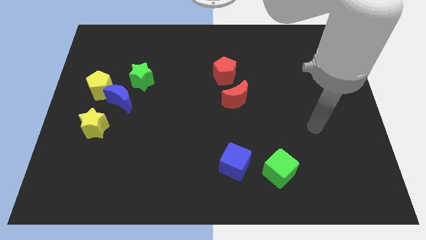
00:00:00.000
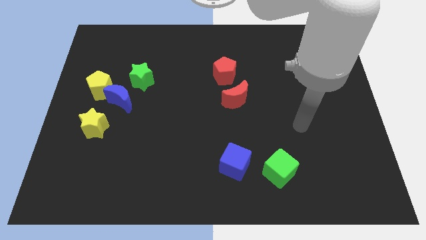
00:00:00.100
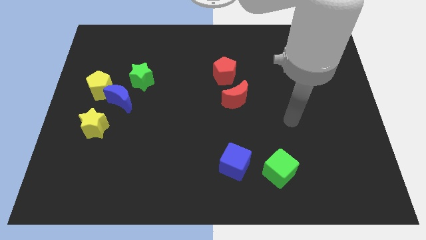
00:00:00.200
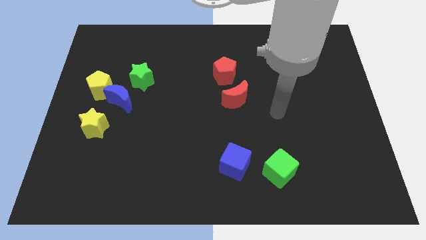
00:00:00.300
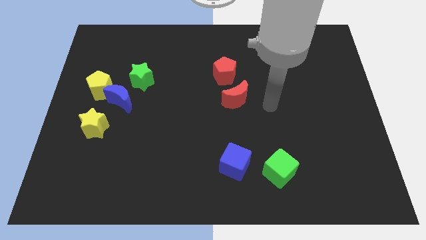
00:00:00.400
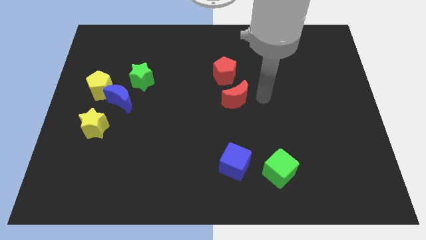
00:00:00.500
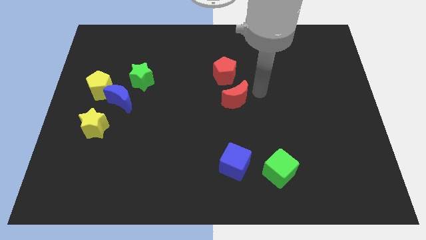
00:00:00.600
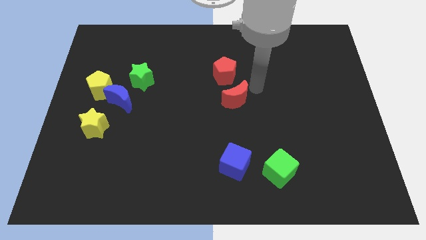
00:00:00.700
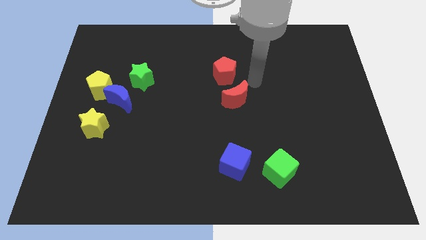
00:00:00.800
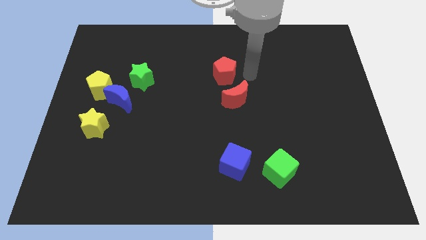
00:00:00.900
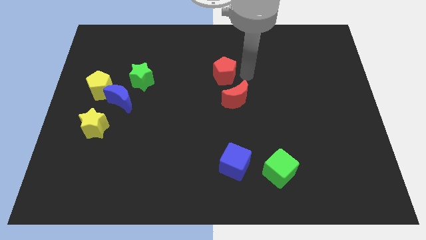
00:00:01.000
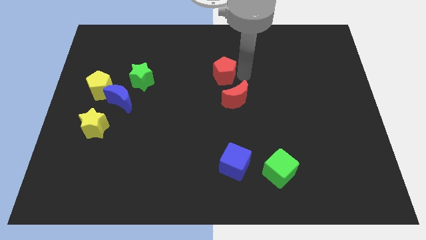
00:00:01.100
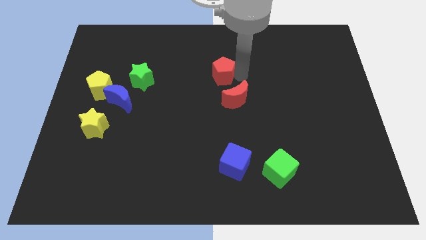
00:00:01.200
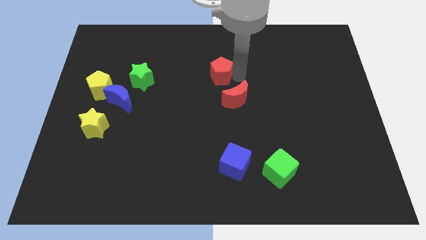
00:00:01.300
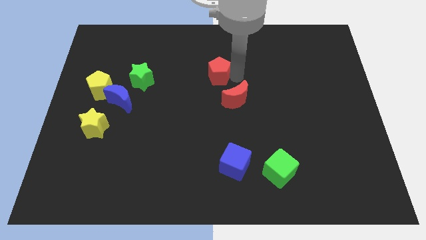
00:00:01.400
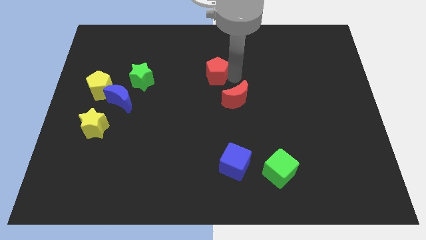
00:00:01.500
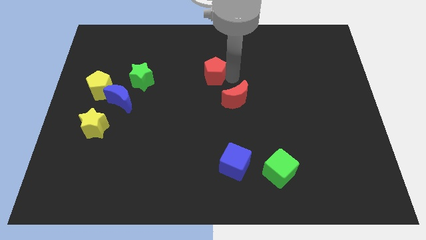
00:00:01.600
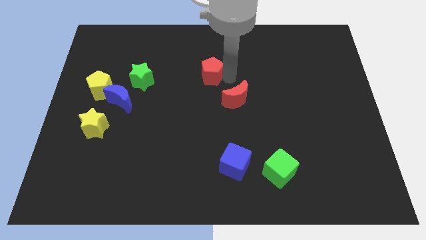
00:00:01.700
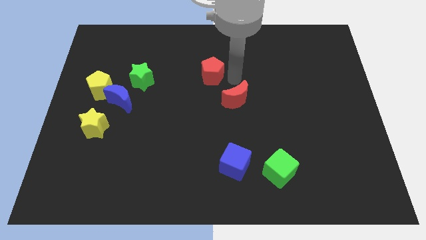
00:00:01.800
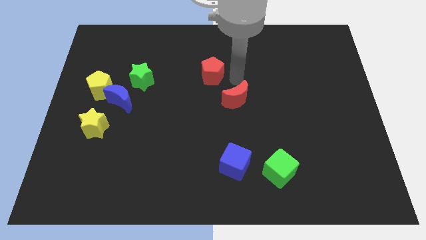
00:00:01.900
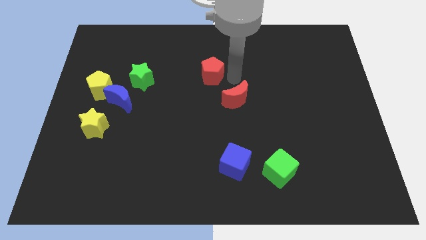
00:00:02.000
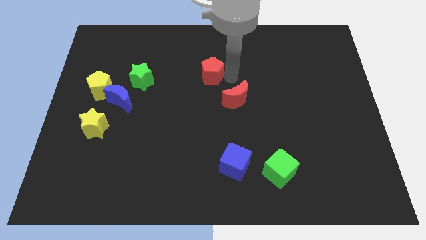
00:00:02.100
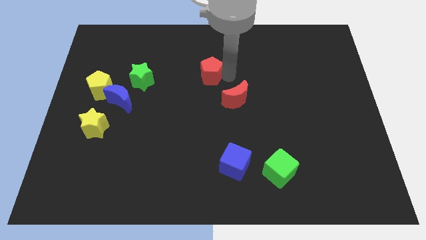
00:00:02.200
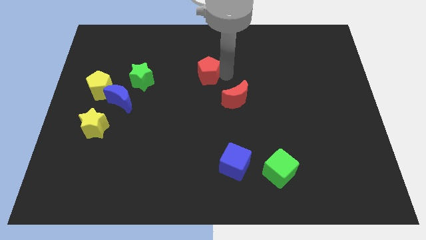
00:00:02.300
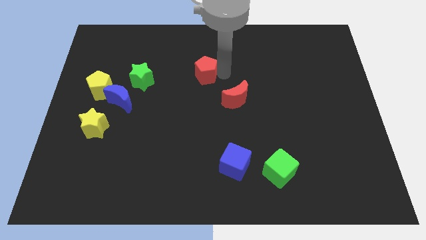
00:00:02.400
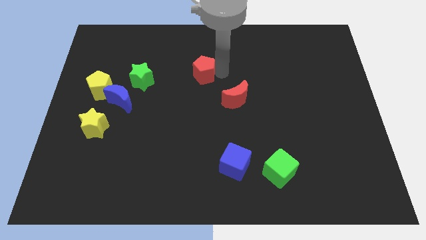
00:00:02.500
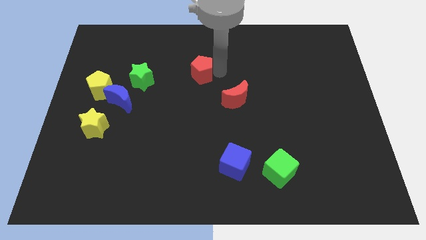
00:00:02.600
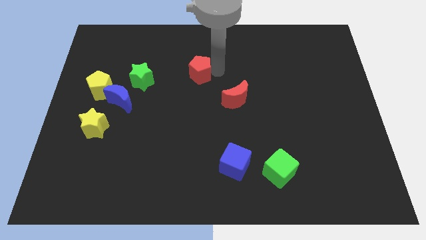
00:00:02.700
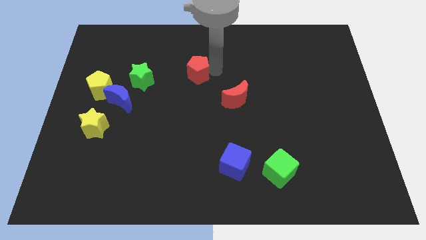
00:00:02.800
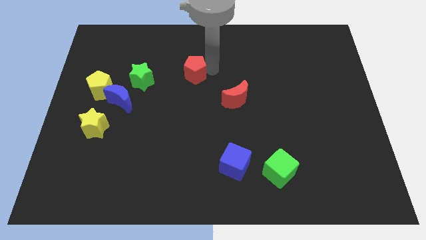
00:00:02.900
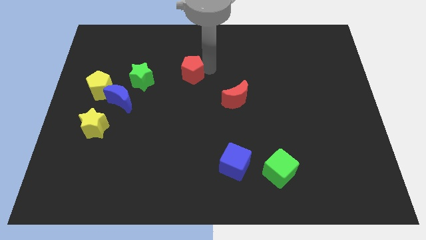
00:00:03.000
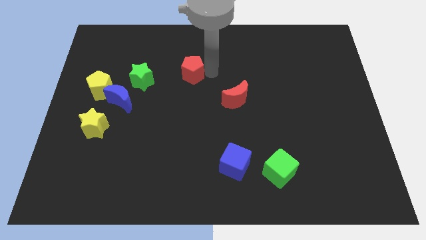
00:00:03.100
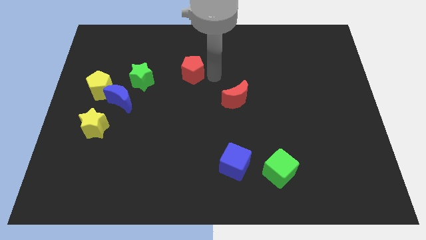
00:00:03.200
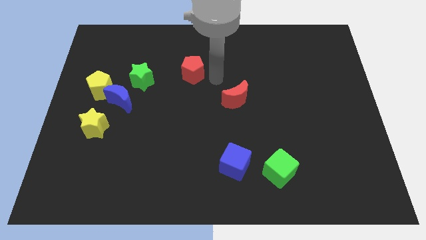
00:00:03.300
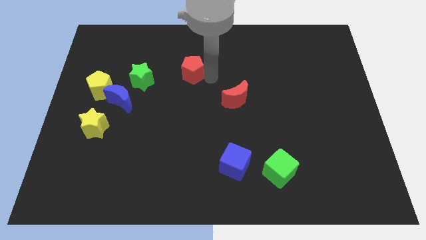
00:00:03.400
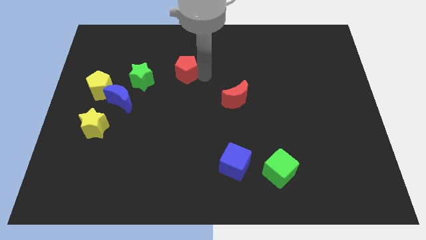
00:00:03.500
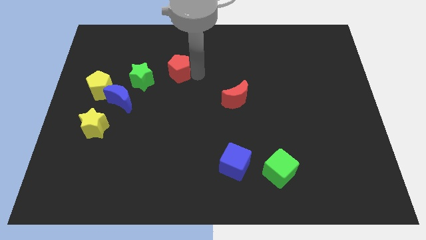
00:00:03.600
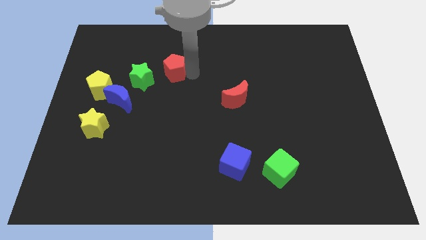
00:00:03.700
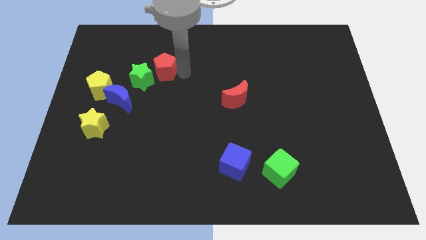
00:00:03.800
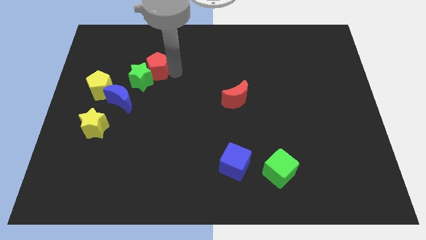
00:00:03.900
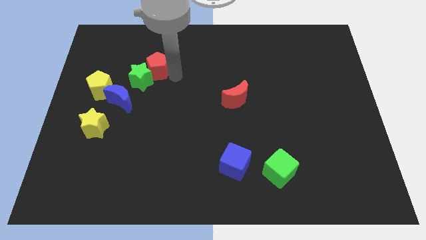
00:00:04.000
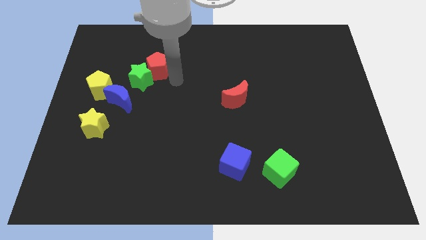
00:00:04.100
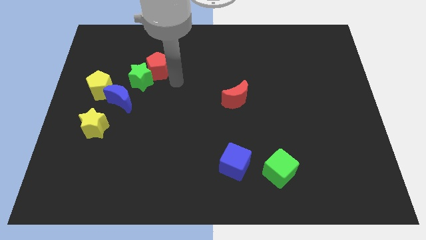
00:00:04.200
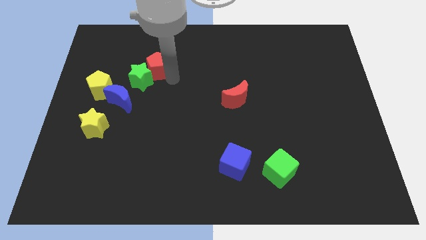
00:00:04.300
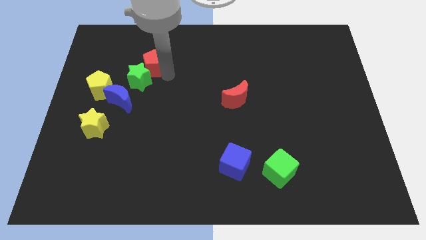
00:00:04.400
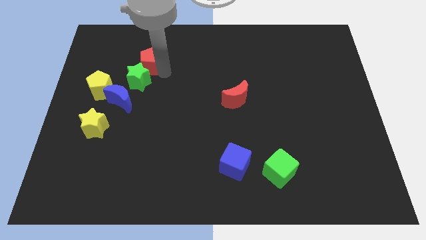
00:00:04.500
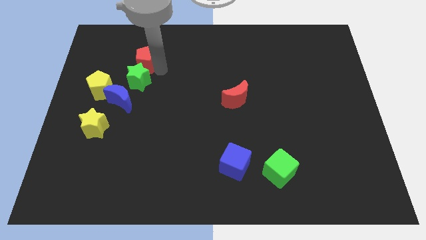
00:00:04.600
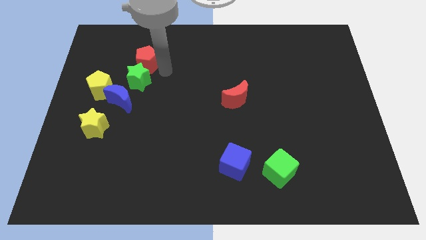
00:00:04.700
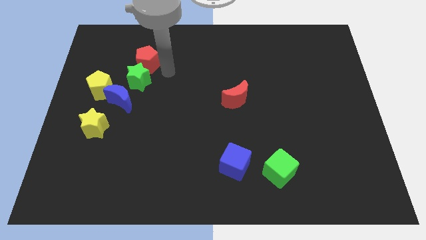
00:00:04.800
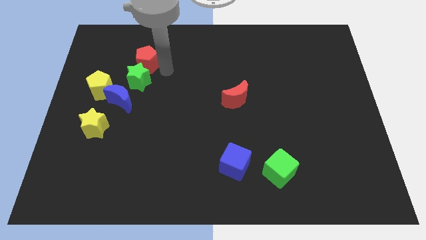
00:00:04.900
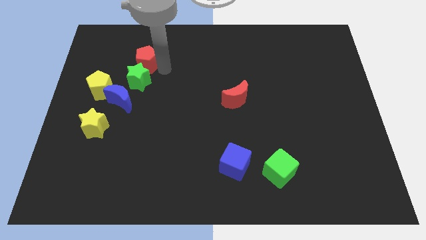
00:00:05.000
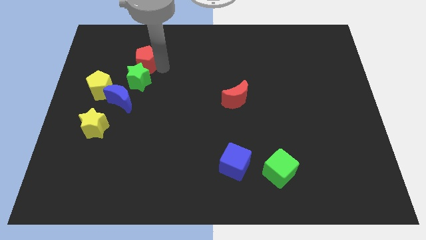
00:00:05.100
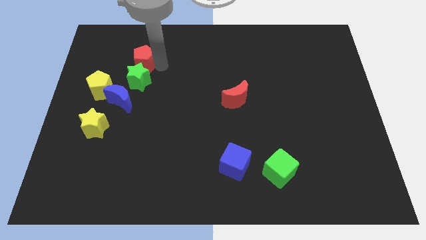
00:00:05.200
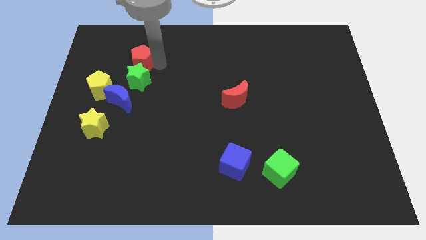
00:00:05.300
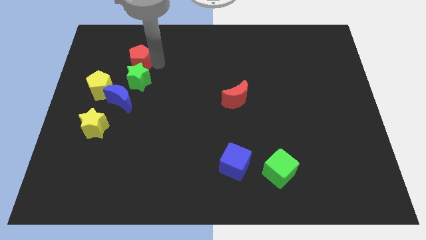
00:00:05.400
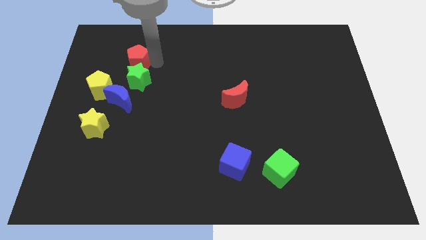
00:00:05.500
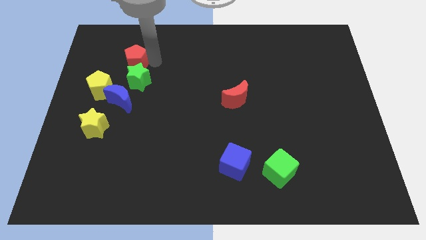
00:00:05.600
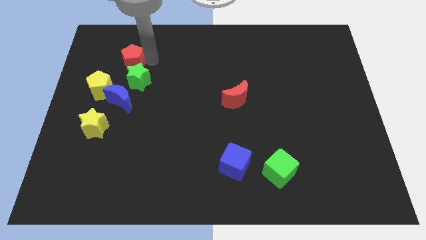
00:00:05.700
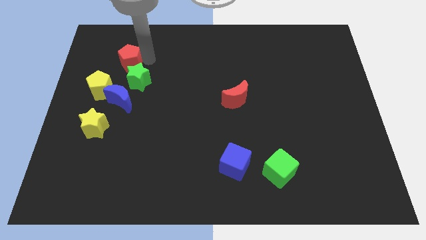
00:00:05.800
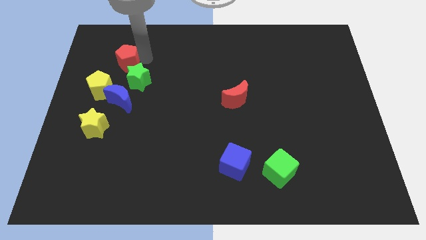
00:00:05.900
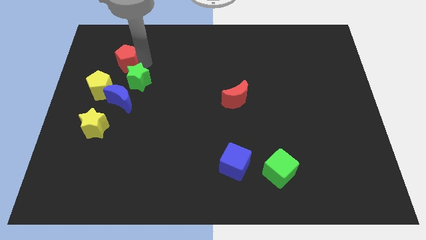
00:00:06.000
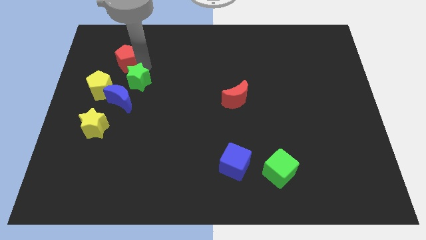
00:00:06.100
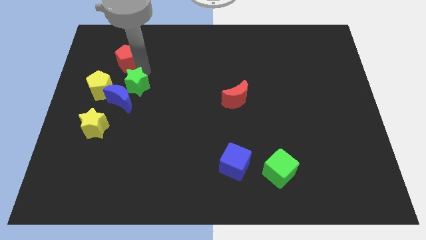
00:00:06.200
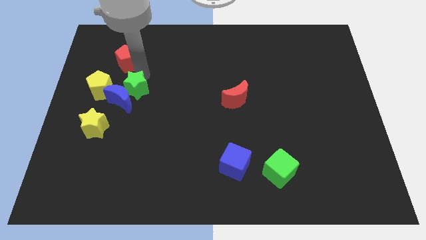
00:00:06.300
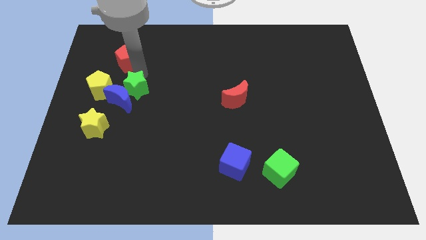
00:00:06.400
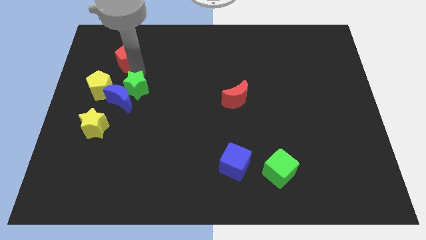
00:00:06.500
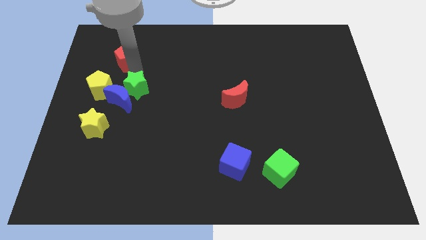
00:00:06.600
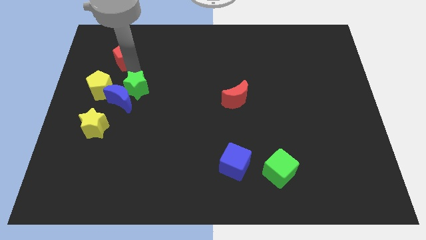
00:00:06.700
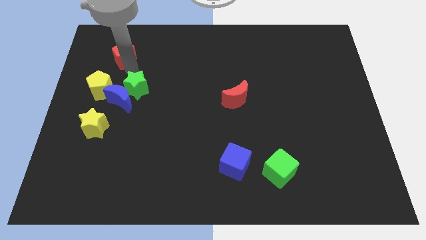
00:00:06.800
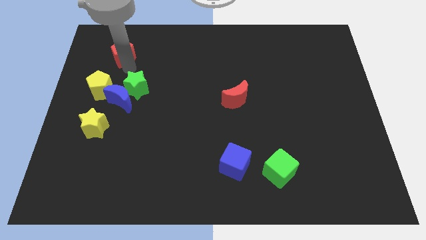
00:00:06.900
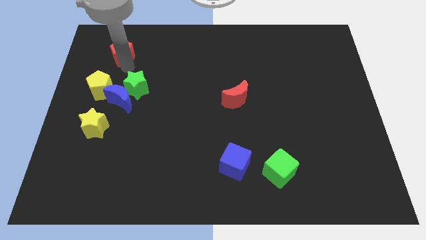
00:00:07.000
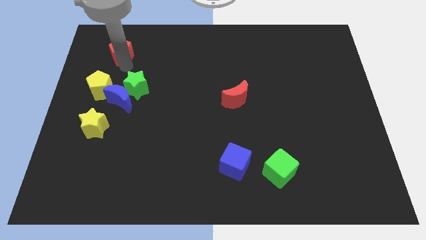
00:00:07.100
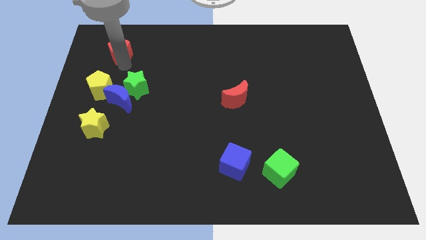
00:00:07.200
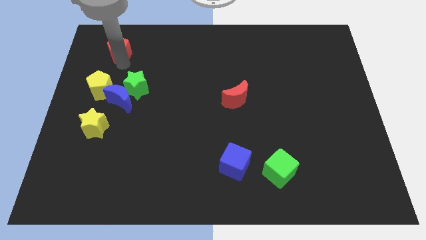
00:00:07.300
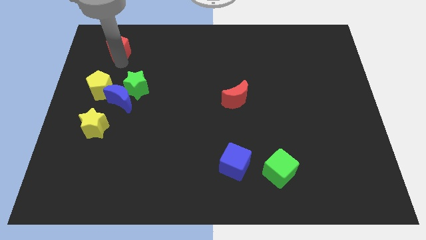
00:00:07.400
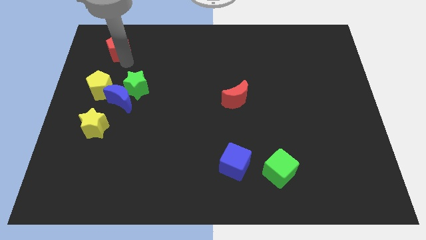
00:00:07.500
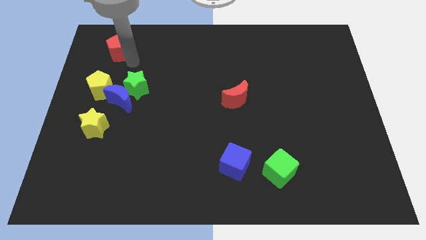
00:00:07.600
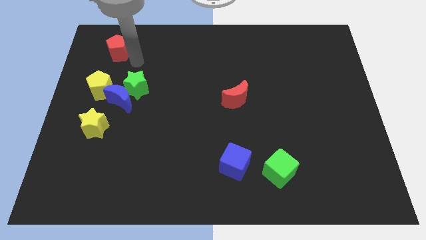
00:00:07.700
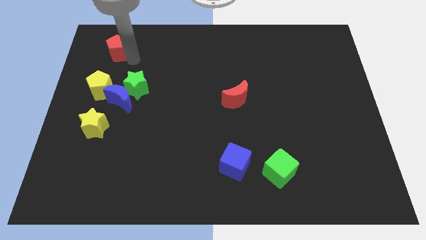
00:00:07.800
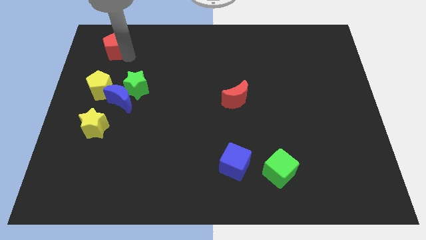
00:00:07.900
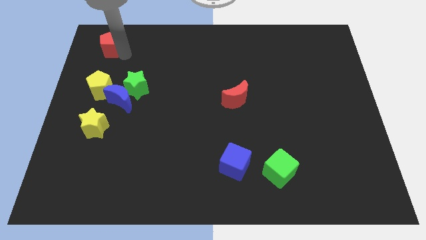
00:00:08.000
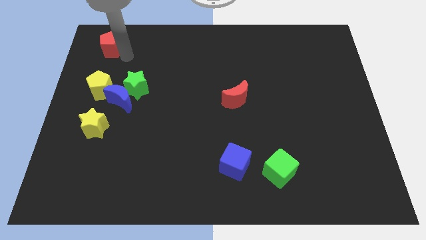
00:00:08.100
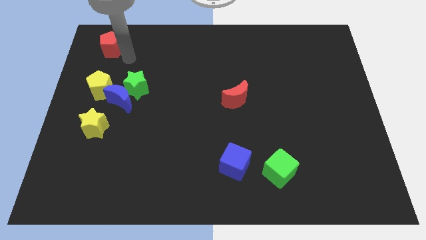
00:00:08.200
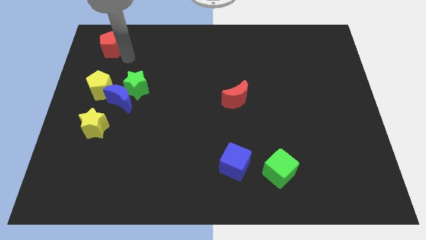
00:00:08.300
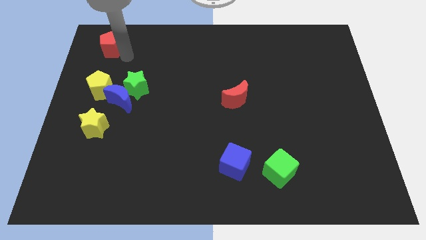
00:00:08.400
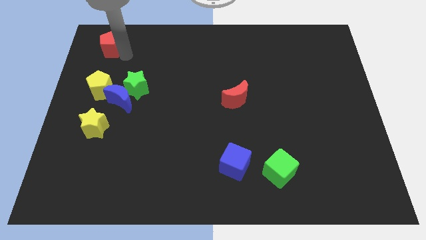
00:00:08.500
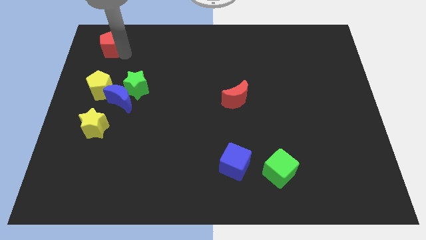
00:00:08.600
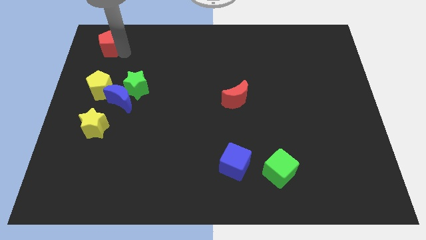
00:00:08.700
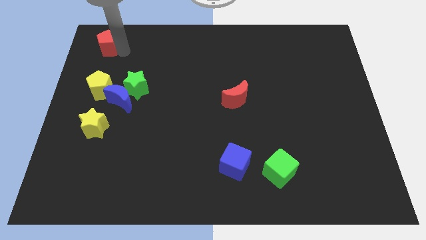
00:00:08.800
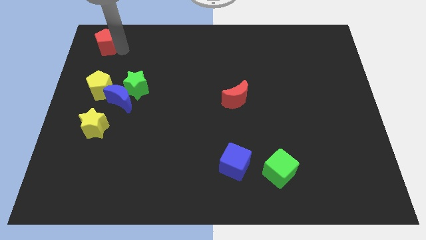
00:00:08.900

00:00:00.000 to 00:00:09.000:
move the red pentagon to the top left
